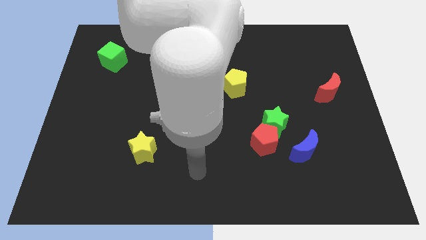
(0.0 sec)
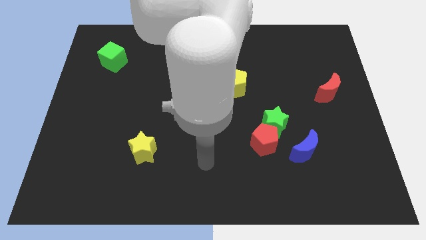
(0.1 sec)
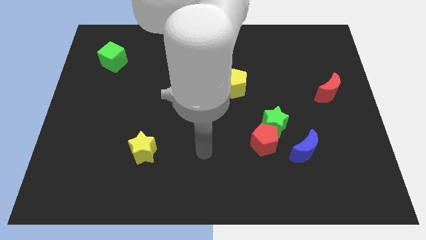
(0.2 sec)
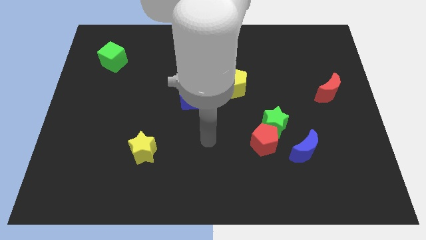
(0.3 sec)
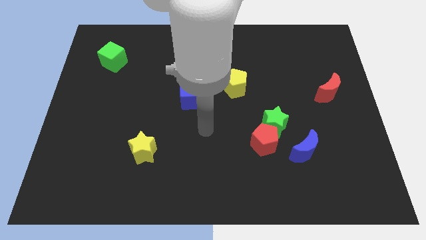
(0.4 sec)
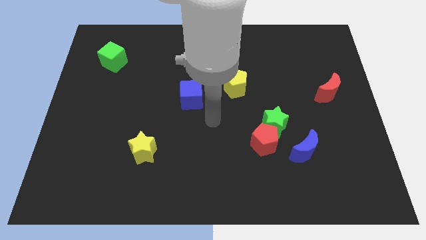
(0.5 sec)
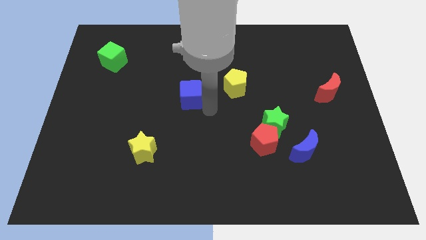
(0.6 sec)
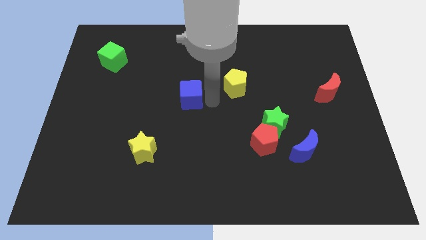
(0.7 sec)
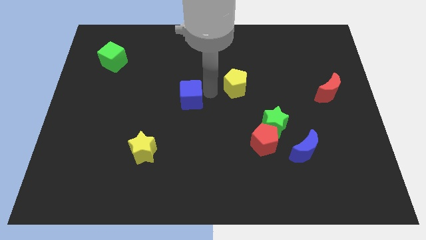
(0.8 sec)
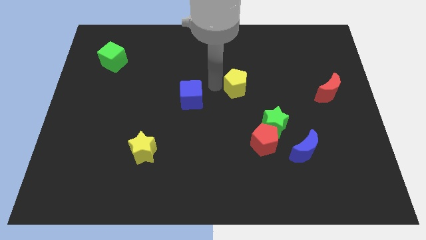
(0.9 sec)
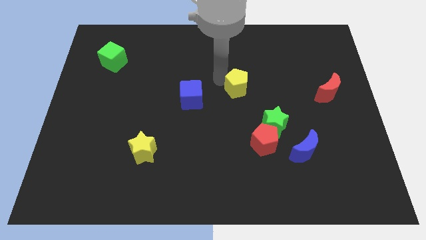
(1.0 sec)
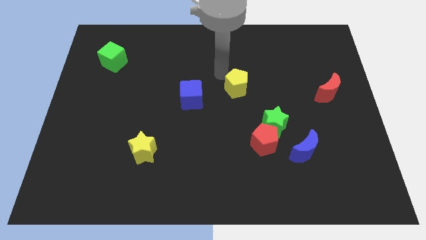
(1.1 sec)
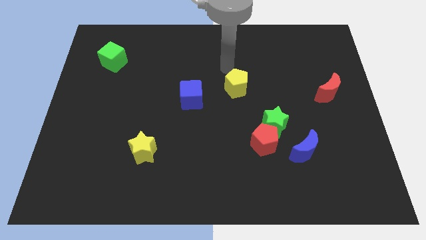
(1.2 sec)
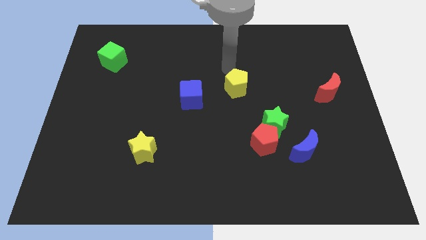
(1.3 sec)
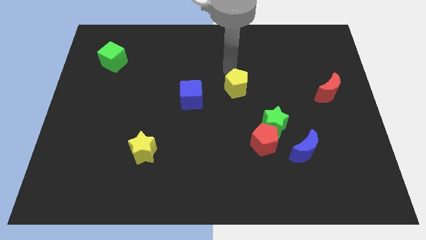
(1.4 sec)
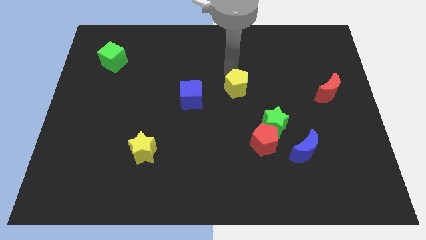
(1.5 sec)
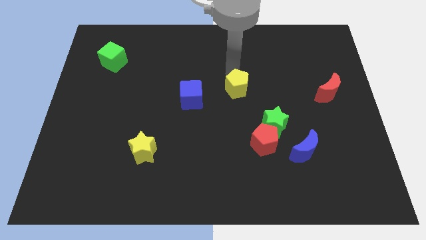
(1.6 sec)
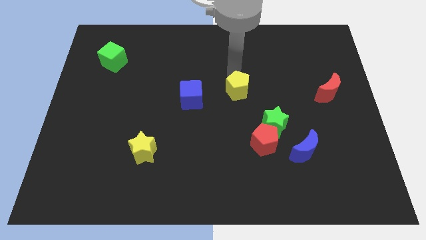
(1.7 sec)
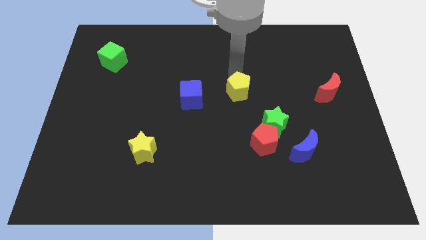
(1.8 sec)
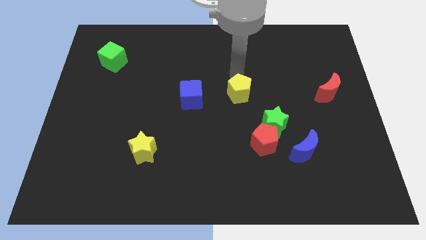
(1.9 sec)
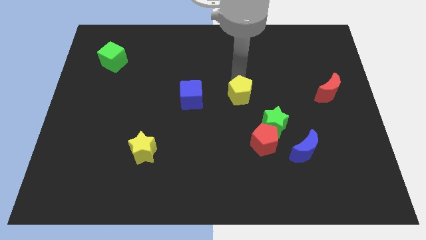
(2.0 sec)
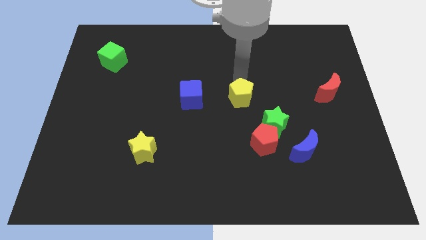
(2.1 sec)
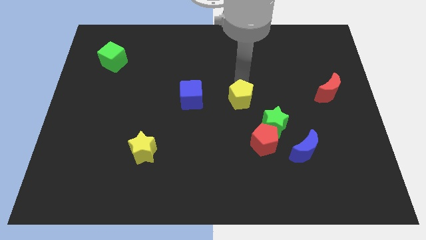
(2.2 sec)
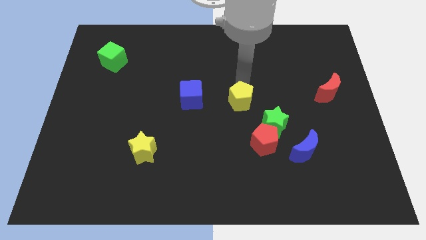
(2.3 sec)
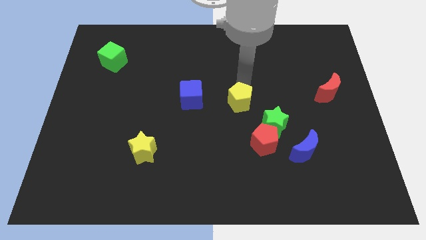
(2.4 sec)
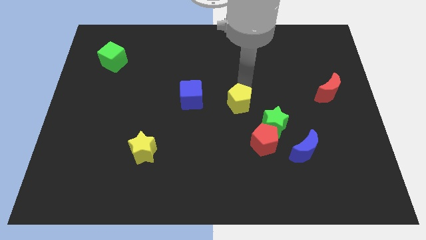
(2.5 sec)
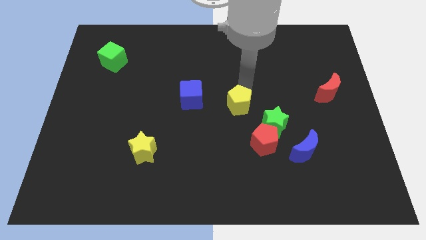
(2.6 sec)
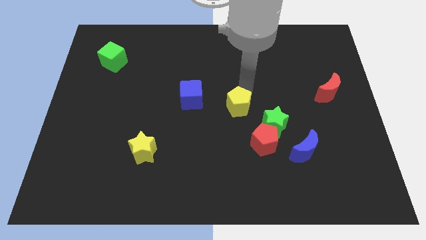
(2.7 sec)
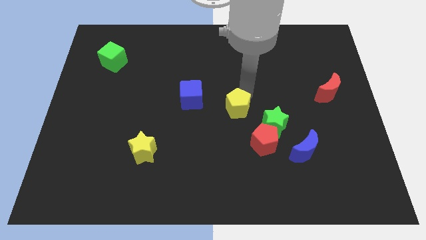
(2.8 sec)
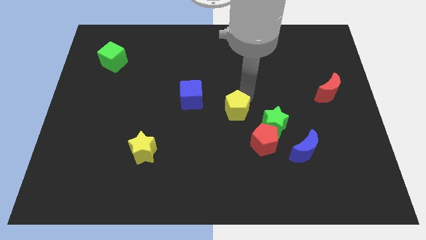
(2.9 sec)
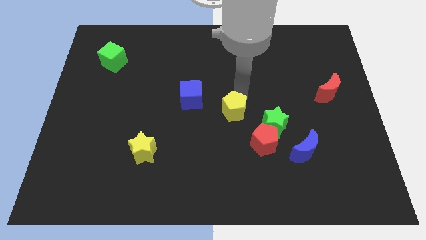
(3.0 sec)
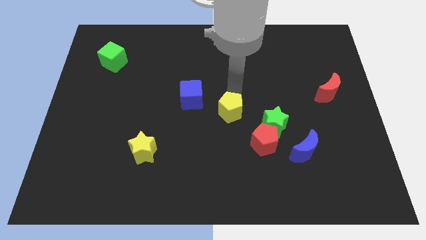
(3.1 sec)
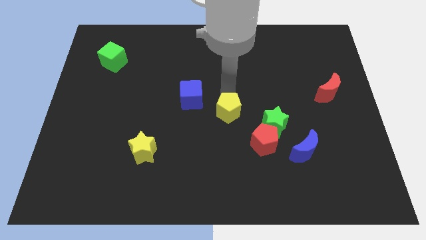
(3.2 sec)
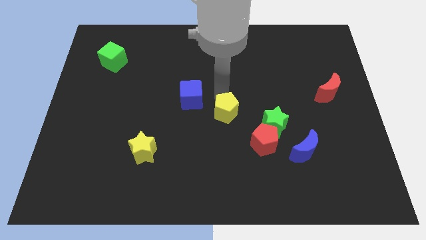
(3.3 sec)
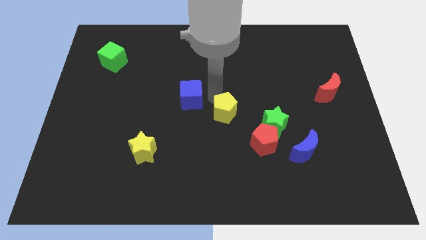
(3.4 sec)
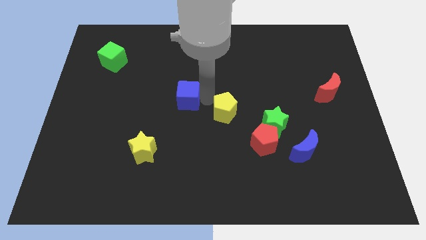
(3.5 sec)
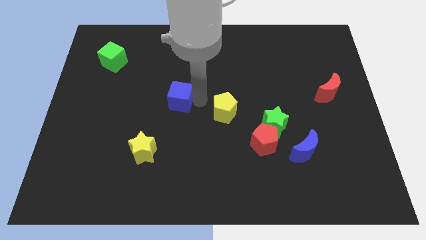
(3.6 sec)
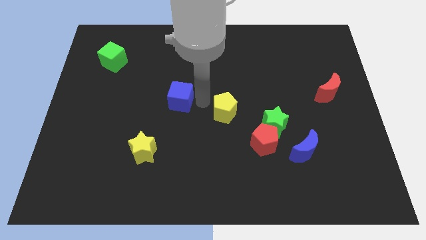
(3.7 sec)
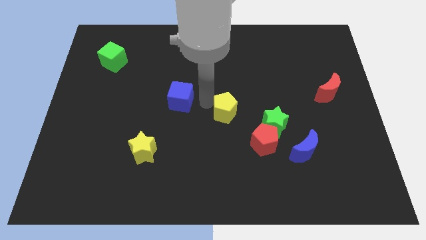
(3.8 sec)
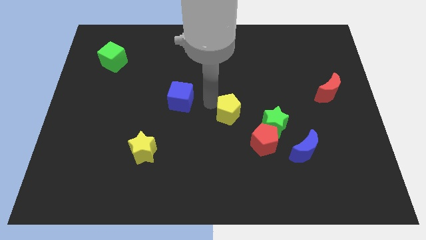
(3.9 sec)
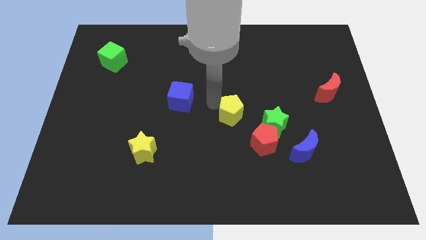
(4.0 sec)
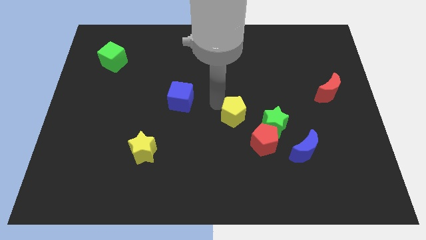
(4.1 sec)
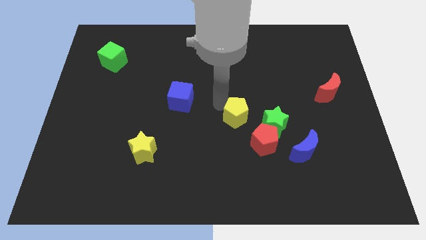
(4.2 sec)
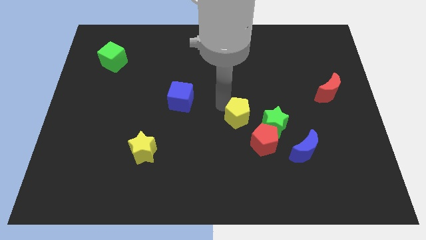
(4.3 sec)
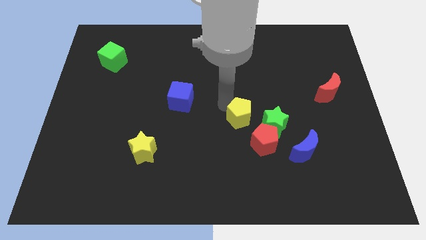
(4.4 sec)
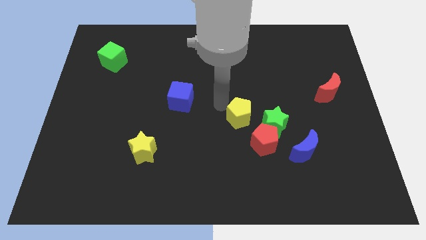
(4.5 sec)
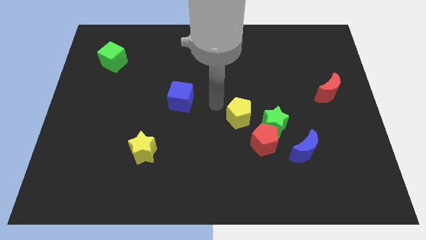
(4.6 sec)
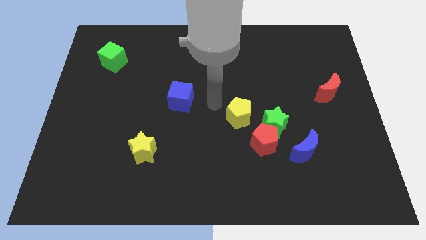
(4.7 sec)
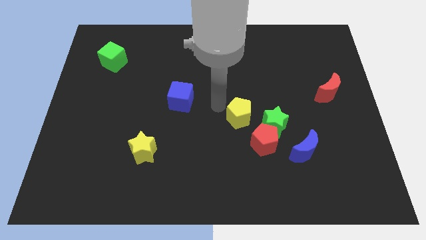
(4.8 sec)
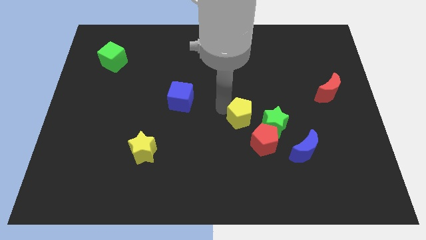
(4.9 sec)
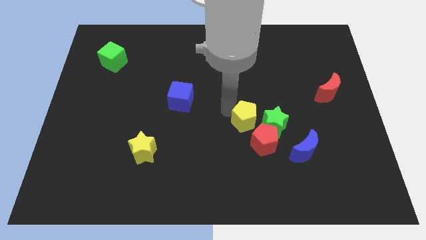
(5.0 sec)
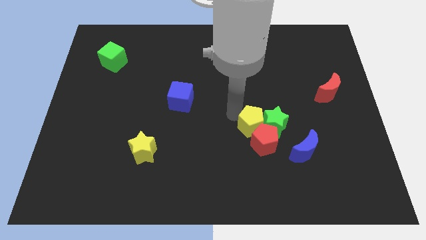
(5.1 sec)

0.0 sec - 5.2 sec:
move the yellow pentagon to the green star

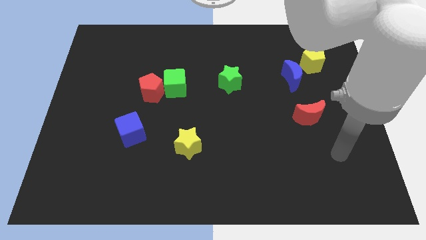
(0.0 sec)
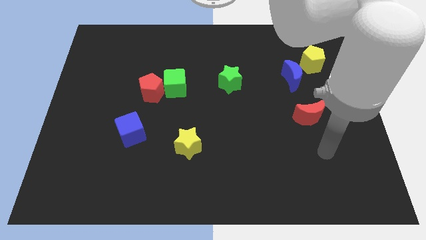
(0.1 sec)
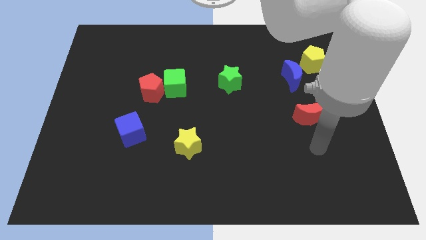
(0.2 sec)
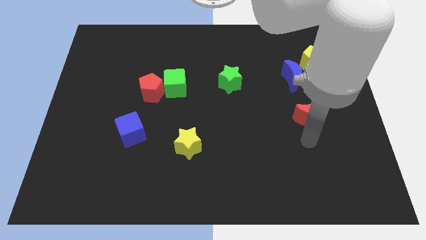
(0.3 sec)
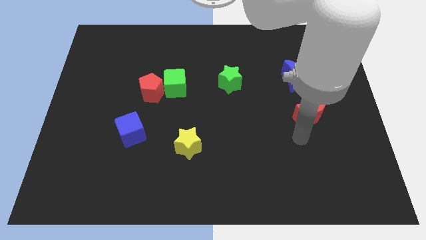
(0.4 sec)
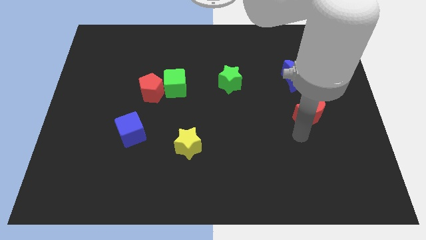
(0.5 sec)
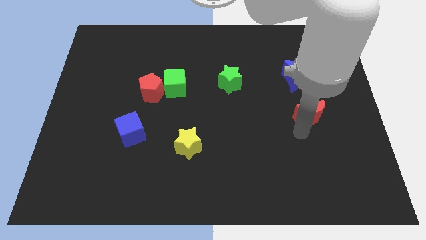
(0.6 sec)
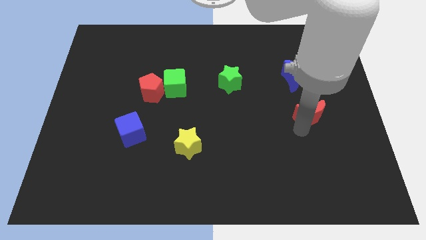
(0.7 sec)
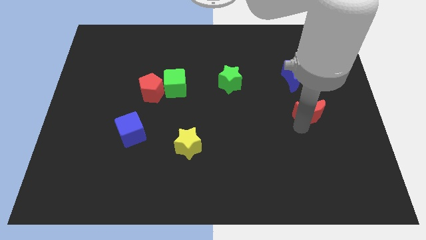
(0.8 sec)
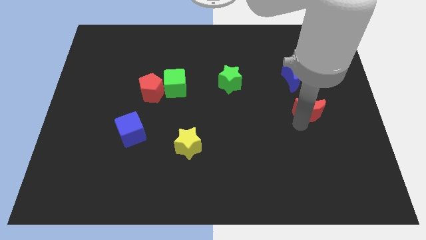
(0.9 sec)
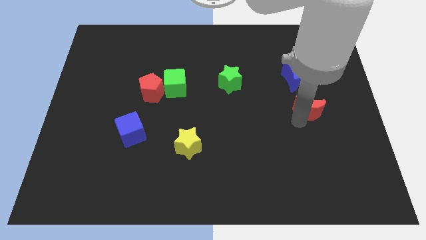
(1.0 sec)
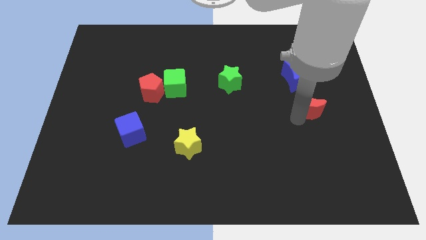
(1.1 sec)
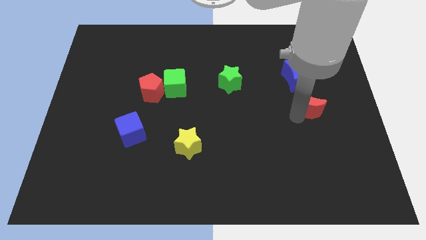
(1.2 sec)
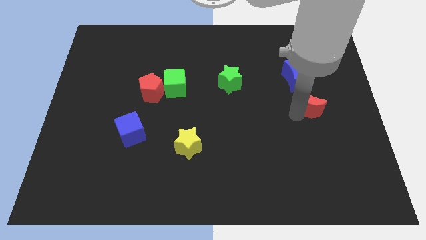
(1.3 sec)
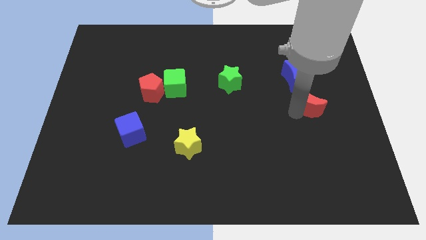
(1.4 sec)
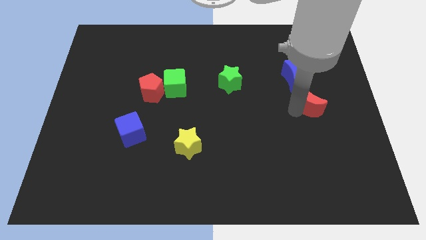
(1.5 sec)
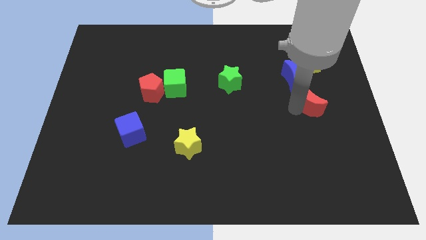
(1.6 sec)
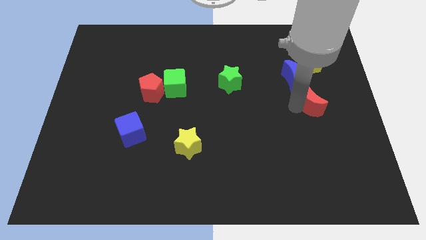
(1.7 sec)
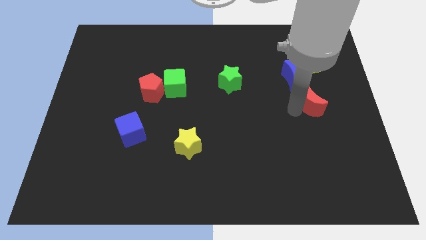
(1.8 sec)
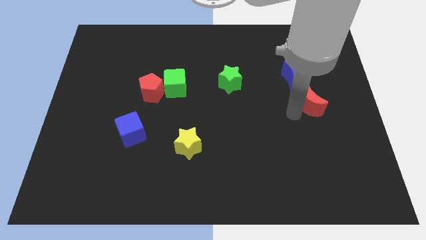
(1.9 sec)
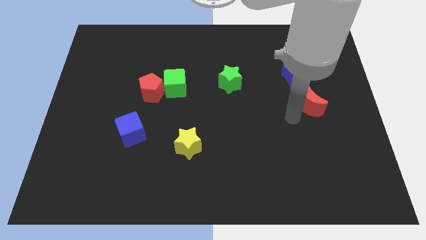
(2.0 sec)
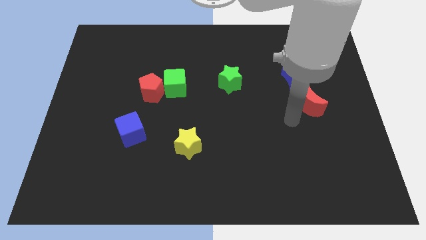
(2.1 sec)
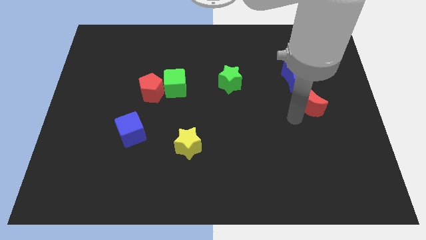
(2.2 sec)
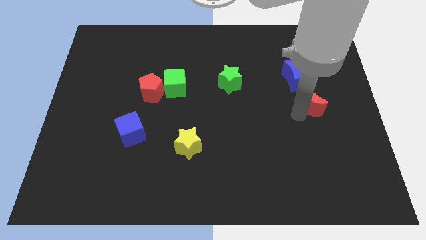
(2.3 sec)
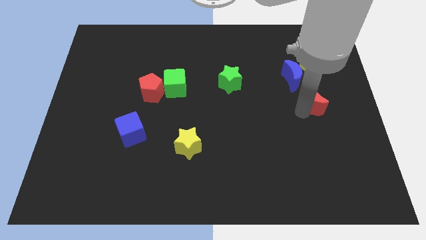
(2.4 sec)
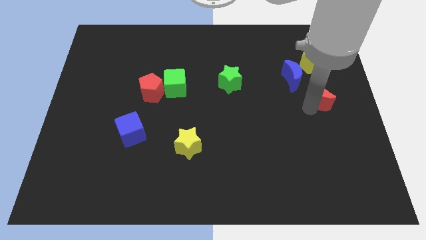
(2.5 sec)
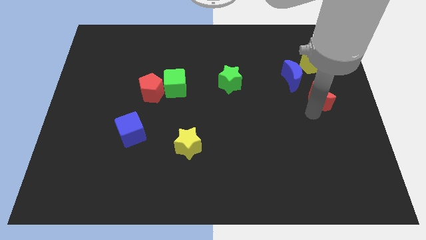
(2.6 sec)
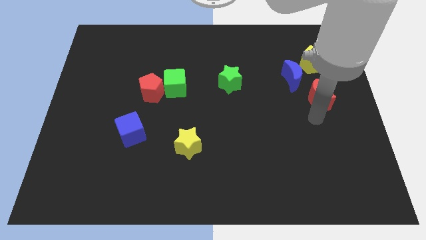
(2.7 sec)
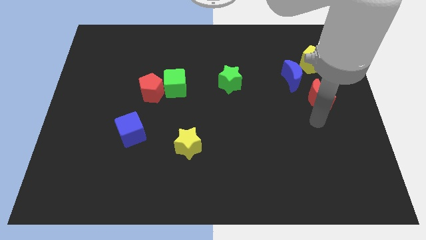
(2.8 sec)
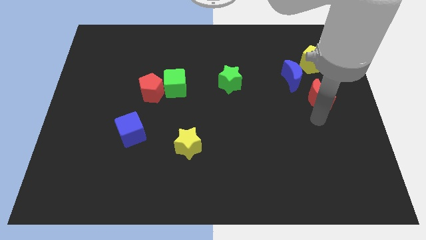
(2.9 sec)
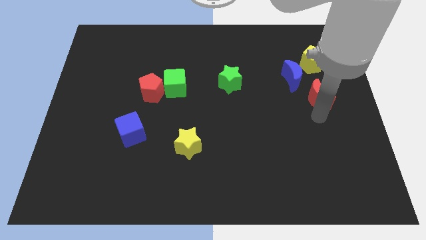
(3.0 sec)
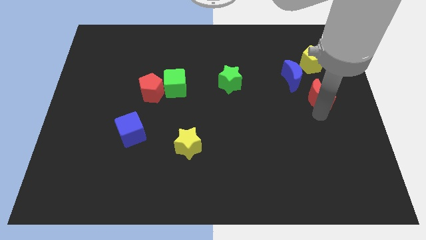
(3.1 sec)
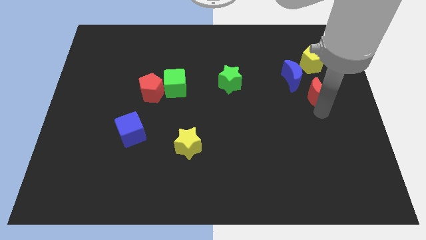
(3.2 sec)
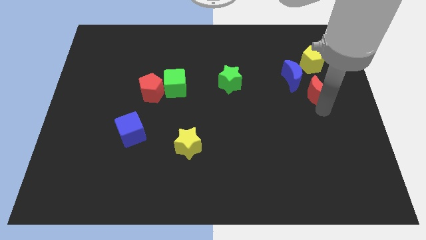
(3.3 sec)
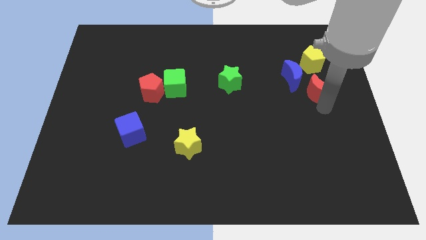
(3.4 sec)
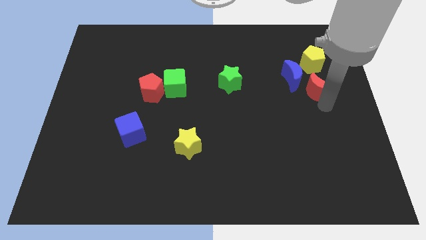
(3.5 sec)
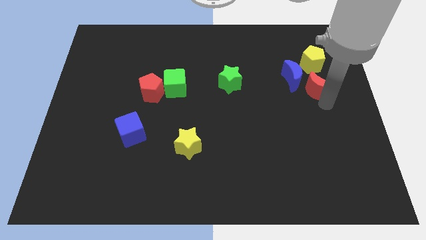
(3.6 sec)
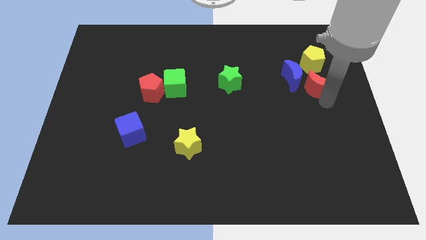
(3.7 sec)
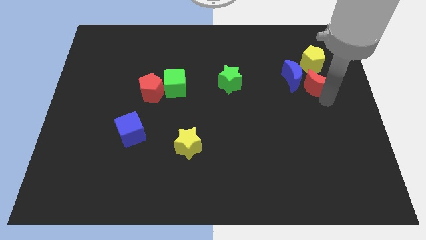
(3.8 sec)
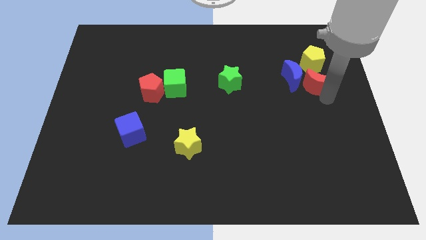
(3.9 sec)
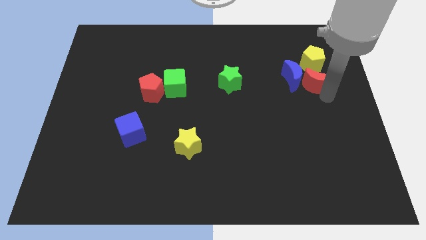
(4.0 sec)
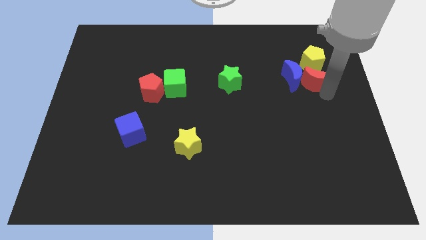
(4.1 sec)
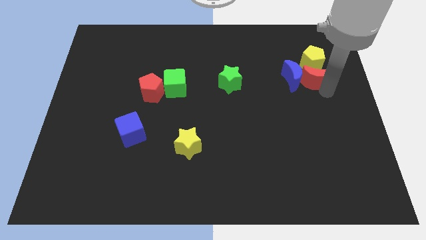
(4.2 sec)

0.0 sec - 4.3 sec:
slide the red moon to the yellow pentagon
